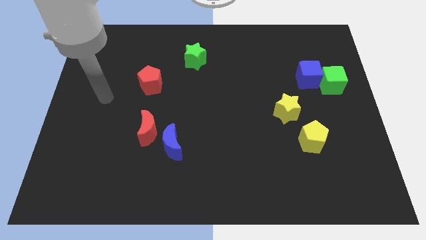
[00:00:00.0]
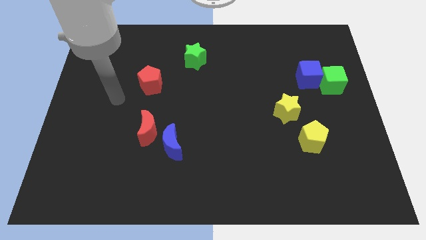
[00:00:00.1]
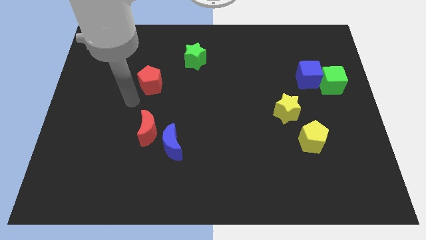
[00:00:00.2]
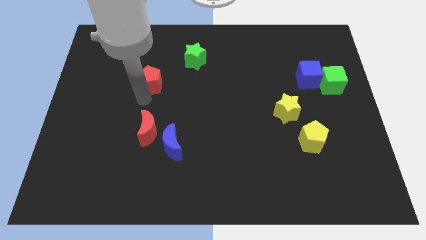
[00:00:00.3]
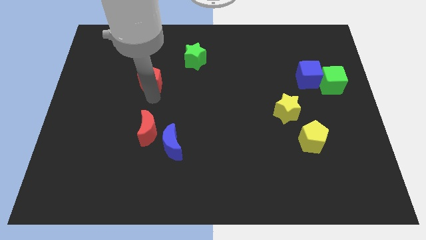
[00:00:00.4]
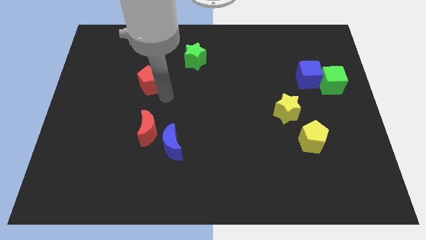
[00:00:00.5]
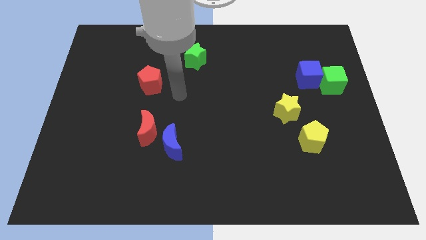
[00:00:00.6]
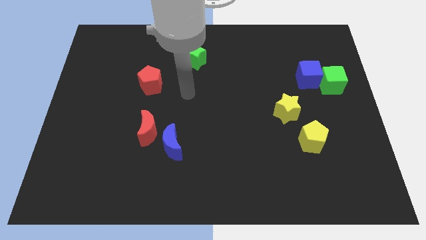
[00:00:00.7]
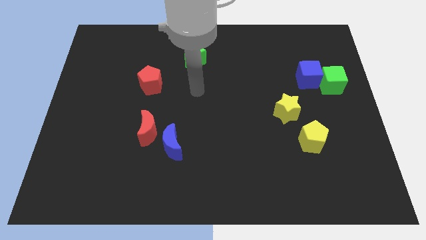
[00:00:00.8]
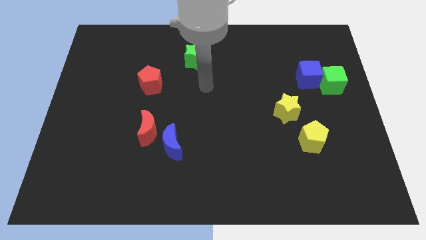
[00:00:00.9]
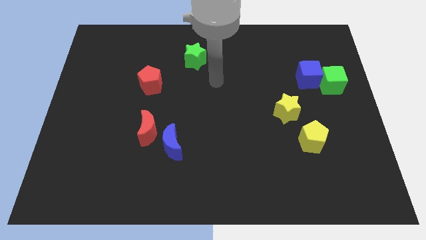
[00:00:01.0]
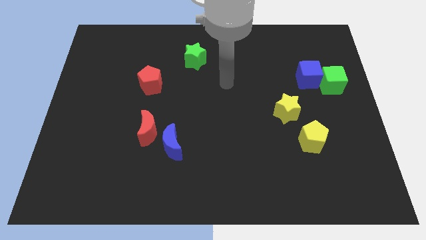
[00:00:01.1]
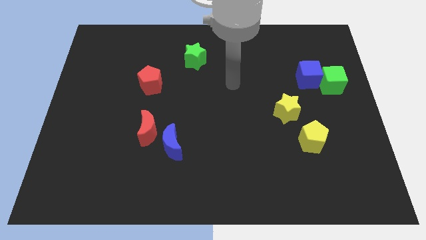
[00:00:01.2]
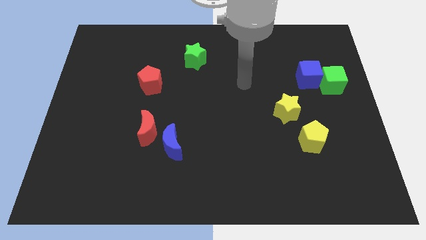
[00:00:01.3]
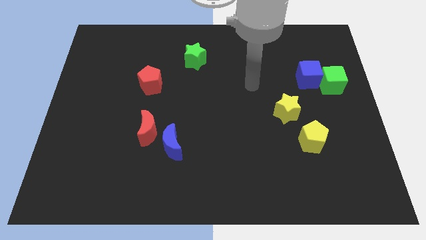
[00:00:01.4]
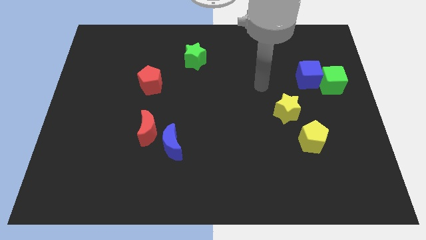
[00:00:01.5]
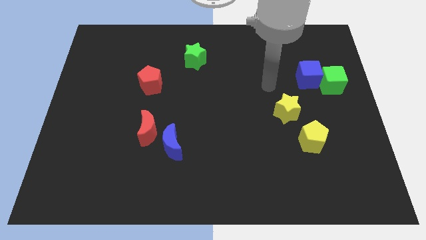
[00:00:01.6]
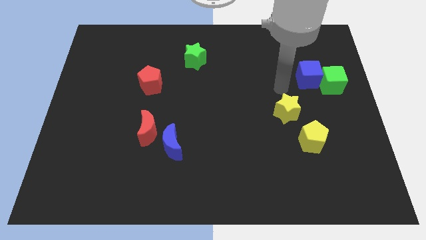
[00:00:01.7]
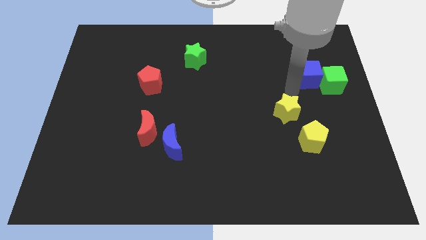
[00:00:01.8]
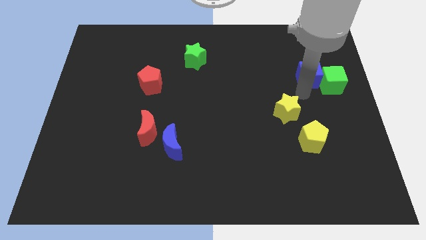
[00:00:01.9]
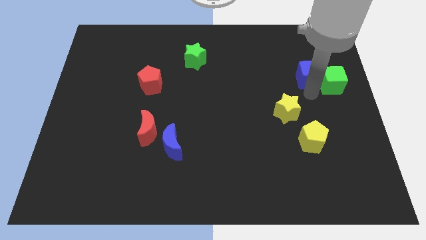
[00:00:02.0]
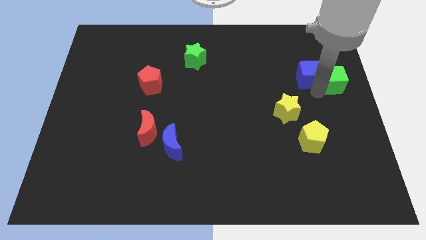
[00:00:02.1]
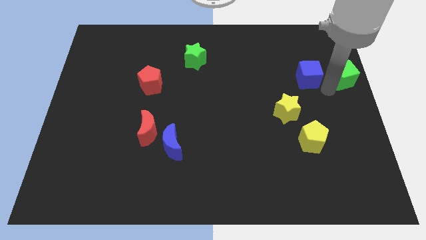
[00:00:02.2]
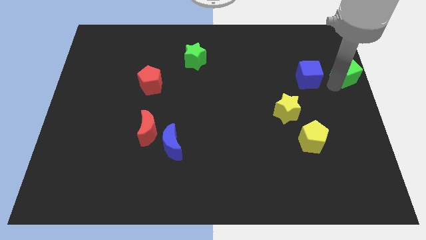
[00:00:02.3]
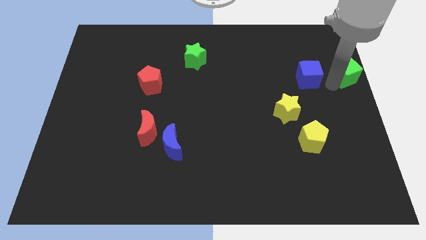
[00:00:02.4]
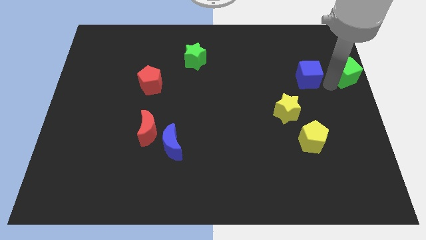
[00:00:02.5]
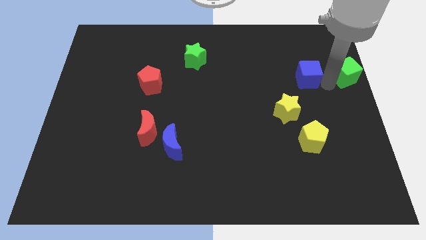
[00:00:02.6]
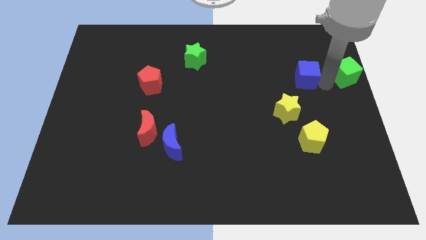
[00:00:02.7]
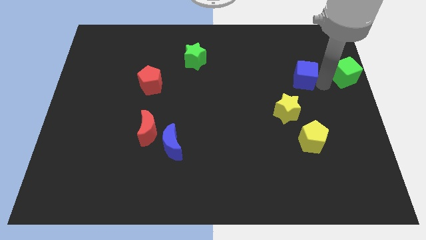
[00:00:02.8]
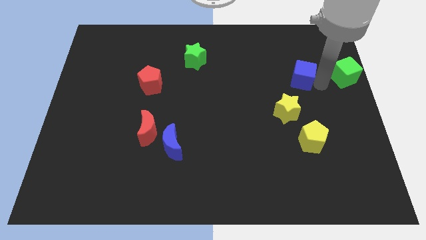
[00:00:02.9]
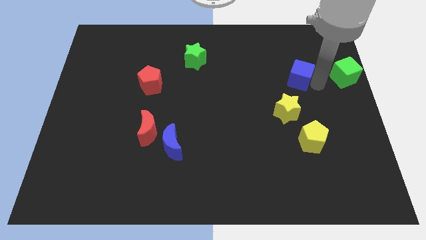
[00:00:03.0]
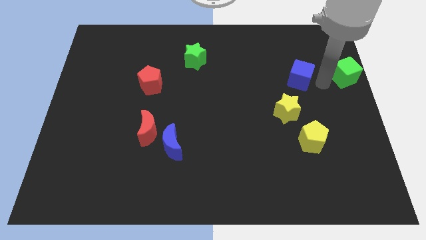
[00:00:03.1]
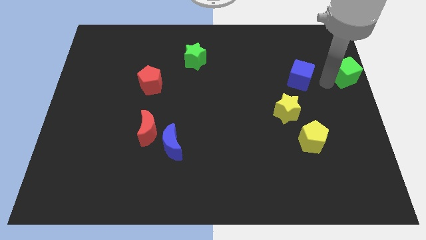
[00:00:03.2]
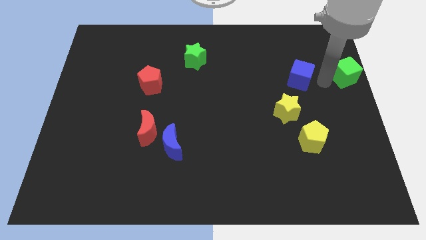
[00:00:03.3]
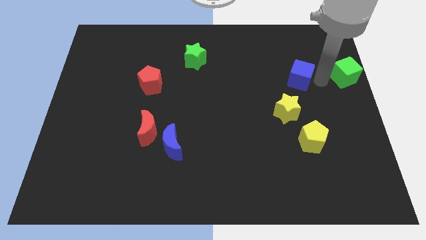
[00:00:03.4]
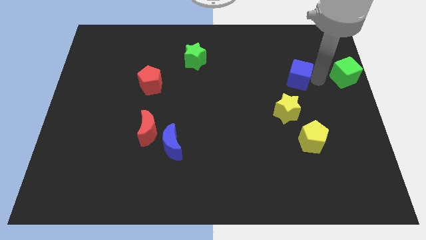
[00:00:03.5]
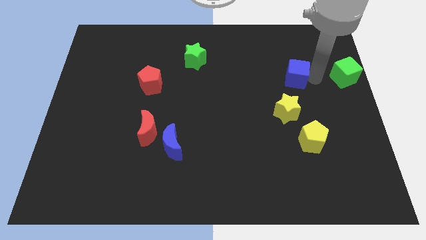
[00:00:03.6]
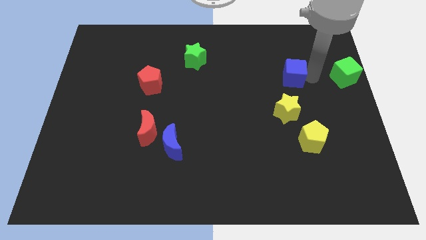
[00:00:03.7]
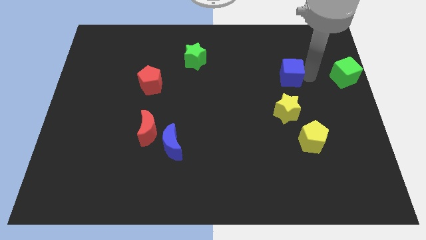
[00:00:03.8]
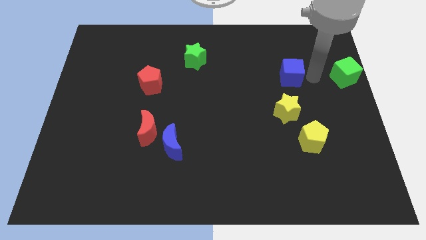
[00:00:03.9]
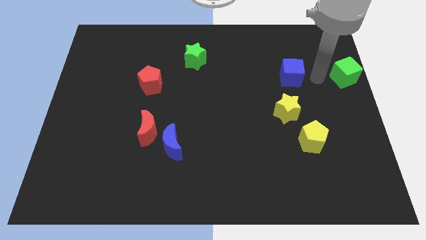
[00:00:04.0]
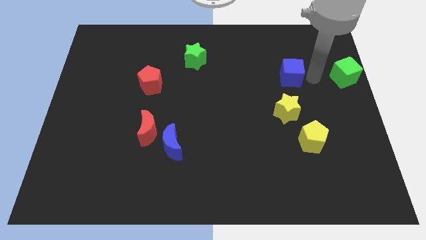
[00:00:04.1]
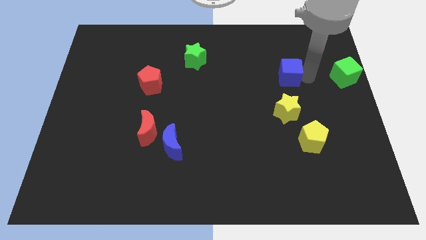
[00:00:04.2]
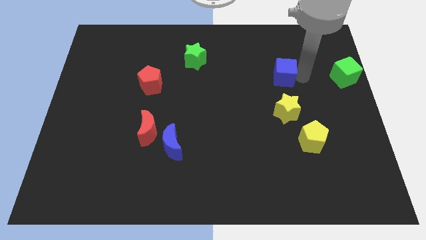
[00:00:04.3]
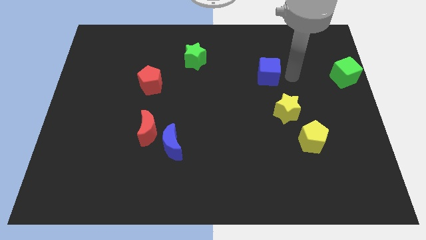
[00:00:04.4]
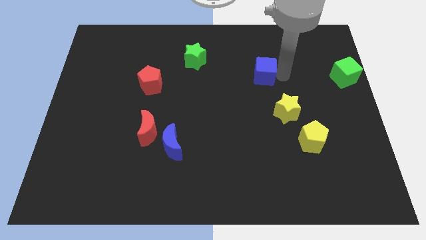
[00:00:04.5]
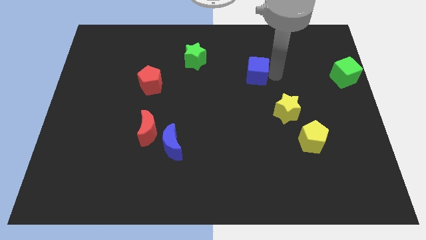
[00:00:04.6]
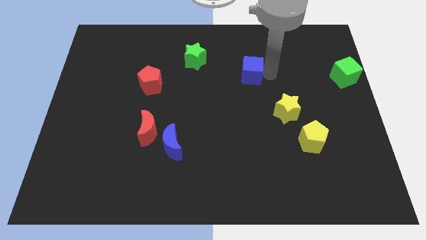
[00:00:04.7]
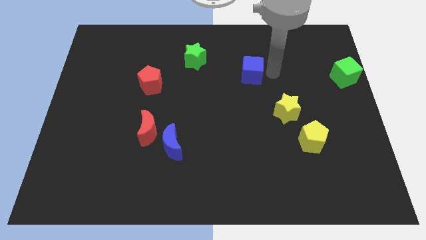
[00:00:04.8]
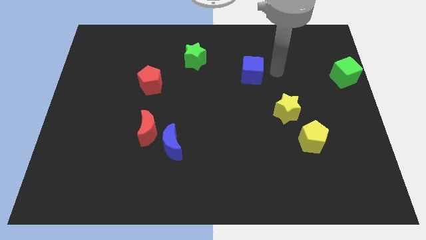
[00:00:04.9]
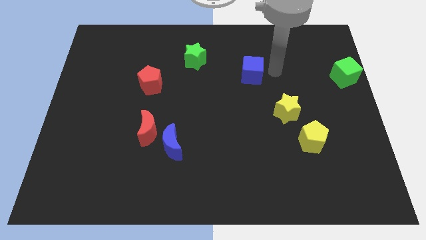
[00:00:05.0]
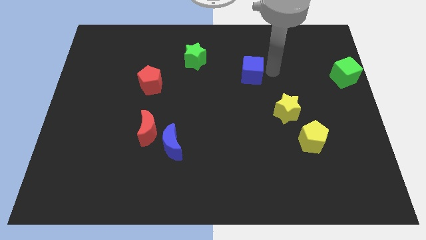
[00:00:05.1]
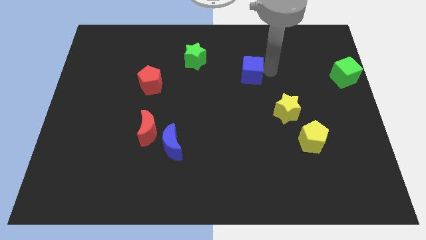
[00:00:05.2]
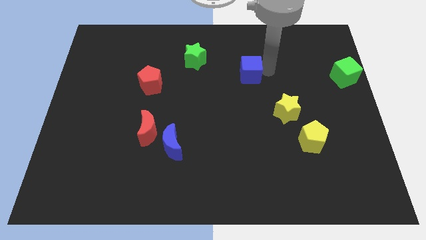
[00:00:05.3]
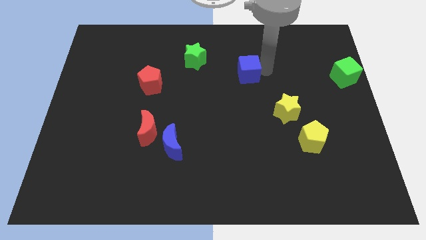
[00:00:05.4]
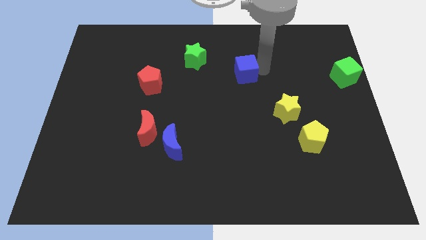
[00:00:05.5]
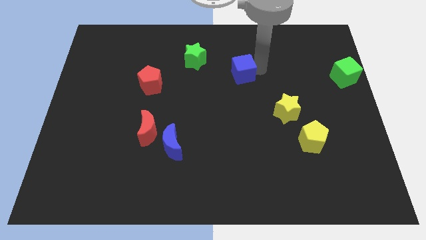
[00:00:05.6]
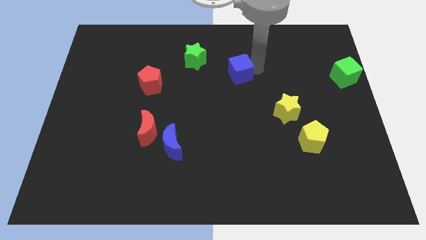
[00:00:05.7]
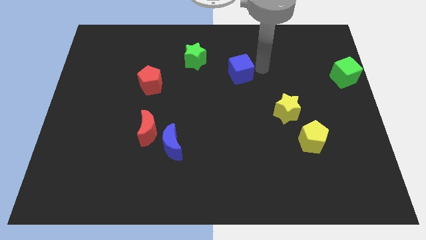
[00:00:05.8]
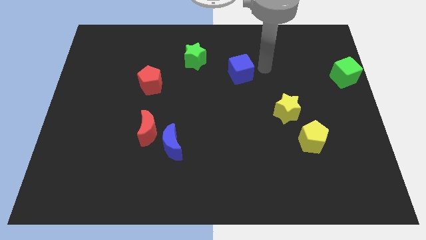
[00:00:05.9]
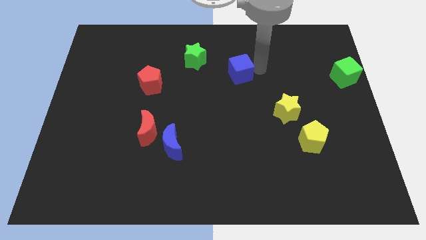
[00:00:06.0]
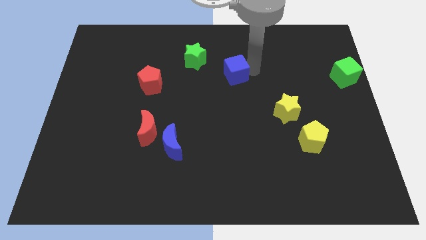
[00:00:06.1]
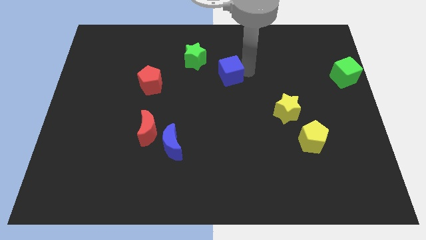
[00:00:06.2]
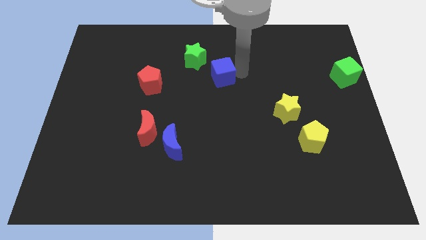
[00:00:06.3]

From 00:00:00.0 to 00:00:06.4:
slide the blue cube left

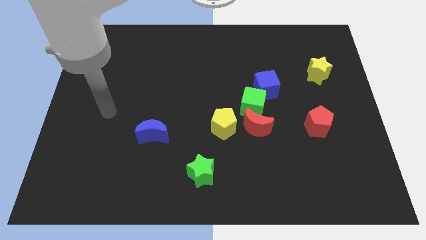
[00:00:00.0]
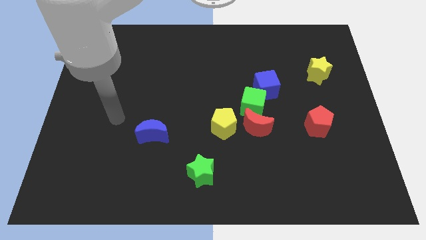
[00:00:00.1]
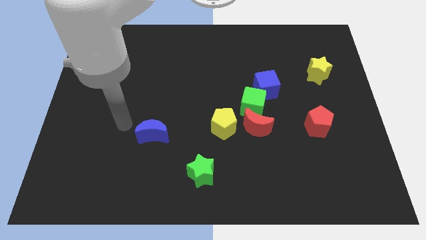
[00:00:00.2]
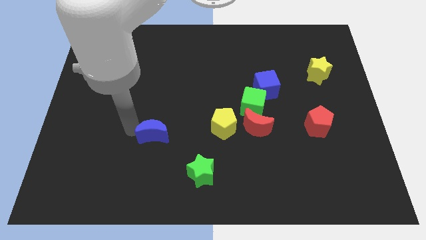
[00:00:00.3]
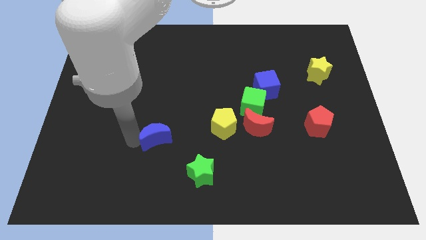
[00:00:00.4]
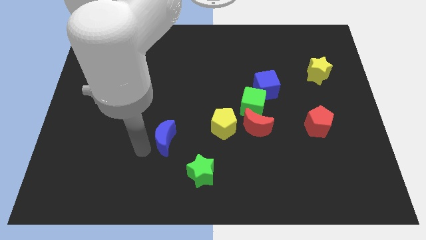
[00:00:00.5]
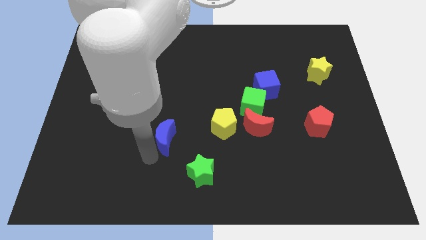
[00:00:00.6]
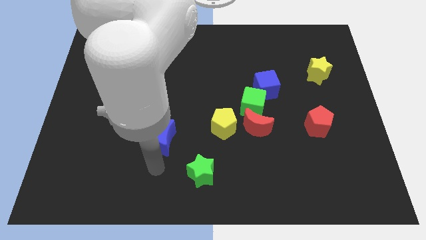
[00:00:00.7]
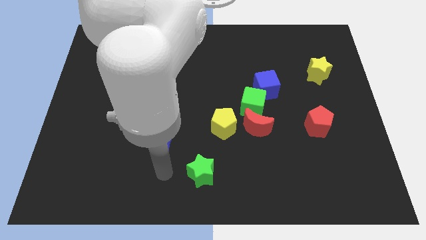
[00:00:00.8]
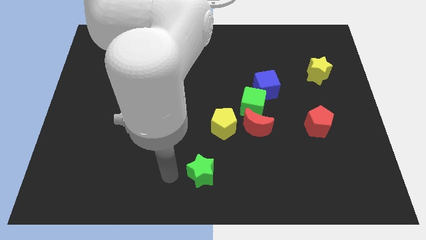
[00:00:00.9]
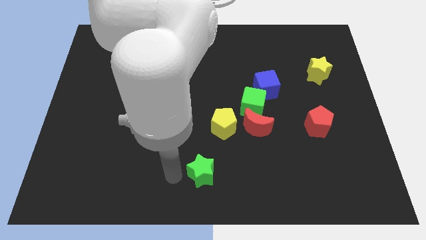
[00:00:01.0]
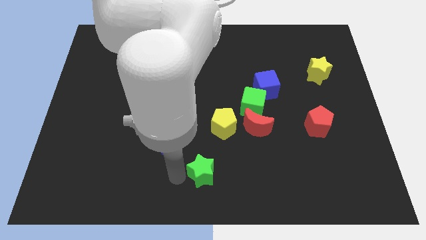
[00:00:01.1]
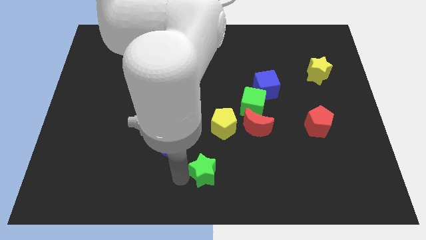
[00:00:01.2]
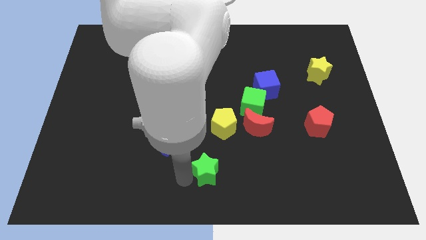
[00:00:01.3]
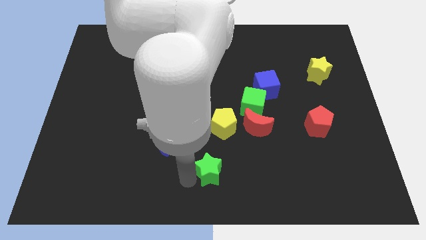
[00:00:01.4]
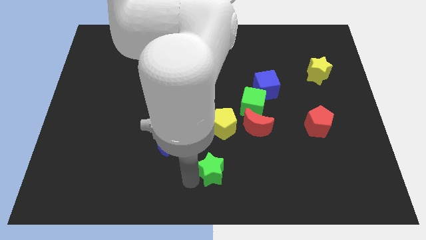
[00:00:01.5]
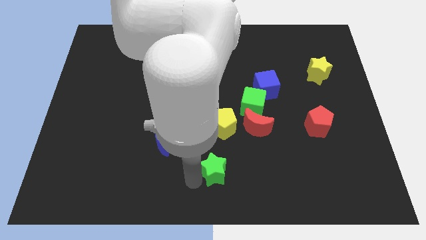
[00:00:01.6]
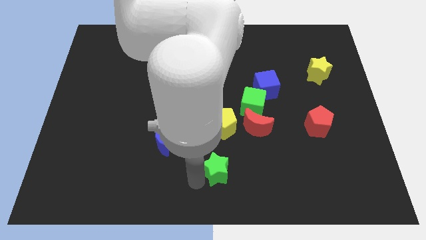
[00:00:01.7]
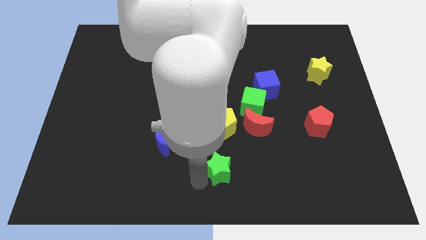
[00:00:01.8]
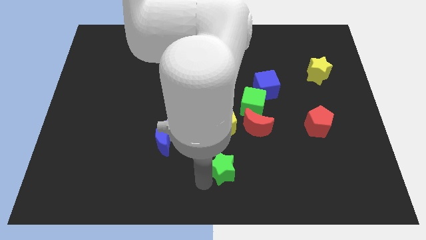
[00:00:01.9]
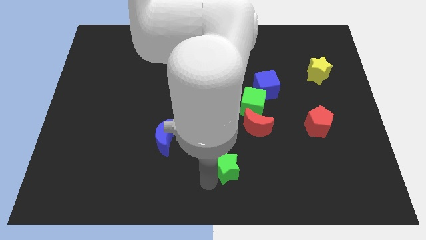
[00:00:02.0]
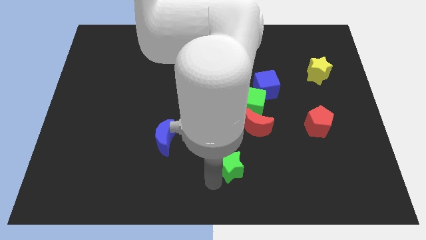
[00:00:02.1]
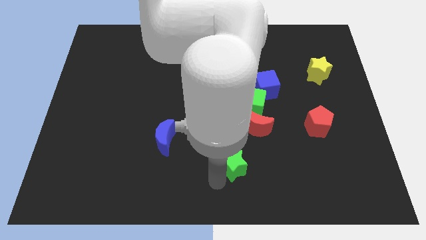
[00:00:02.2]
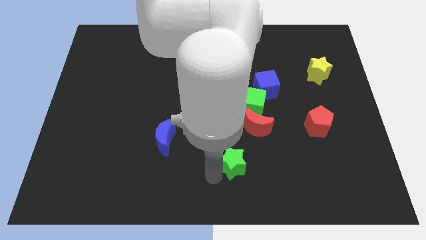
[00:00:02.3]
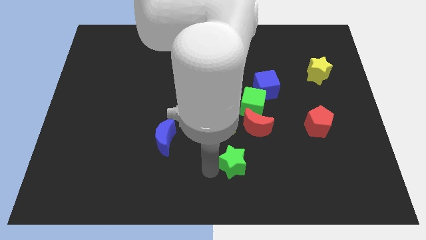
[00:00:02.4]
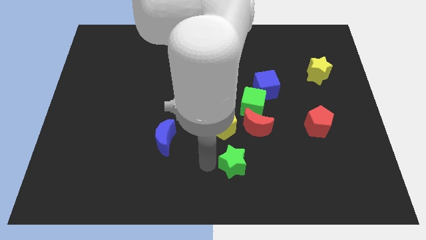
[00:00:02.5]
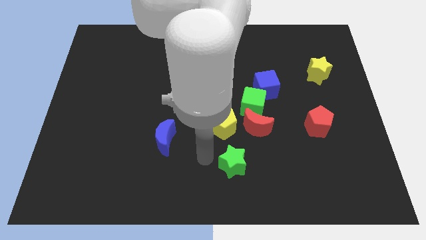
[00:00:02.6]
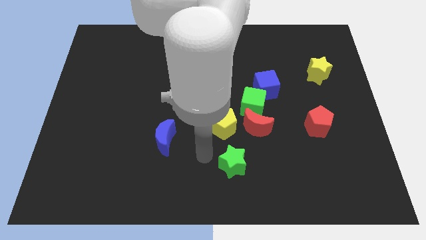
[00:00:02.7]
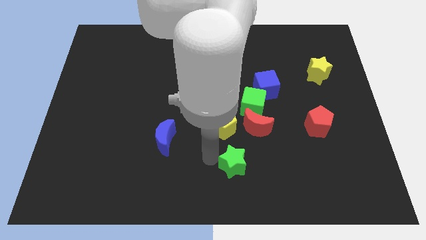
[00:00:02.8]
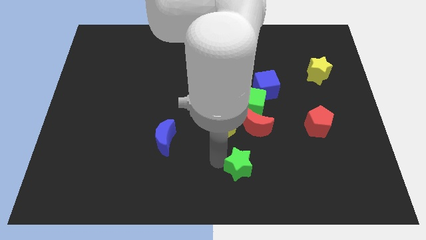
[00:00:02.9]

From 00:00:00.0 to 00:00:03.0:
move the green star a bit to the right
